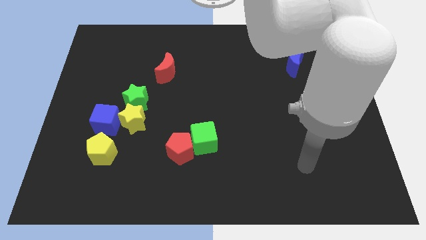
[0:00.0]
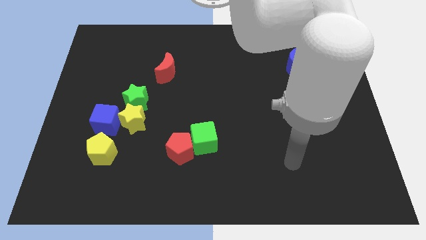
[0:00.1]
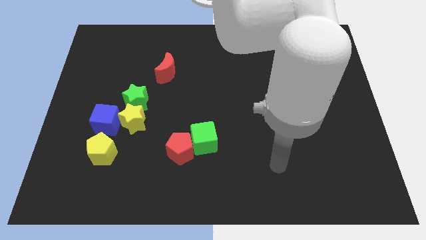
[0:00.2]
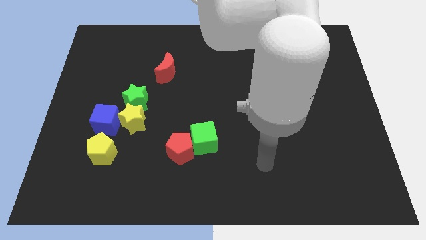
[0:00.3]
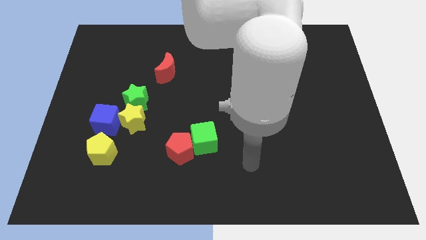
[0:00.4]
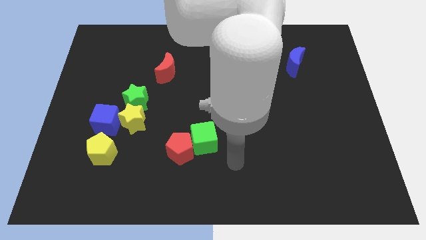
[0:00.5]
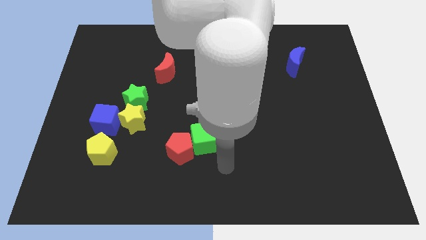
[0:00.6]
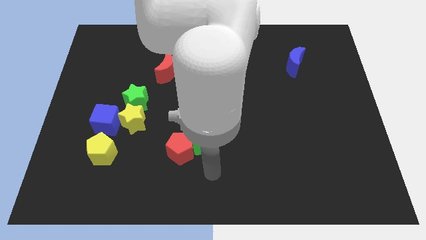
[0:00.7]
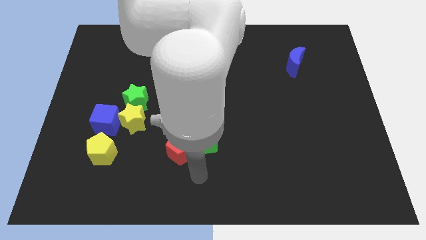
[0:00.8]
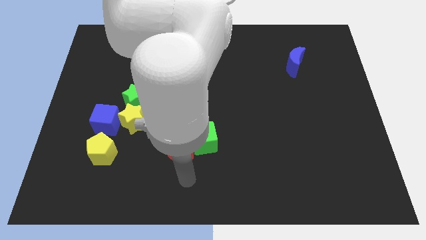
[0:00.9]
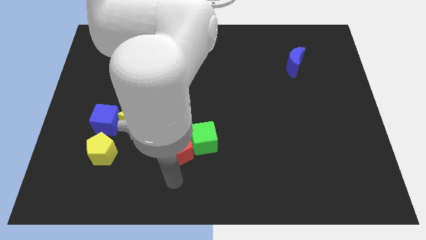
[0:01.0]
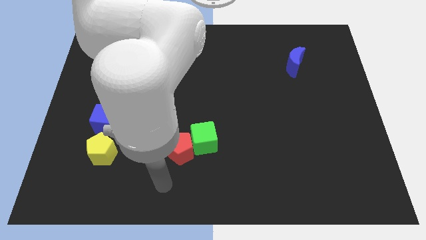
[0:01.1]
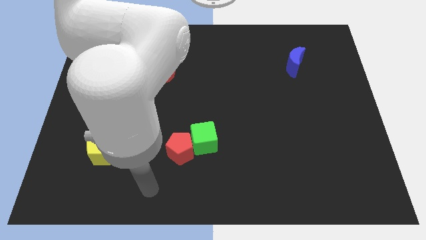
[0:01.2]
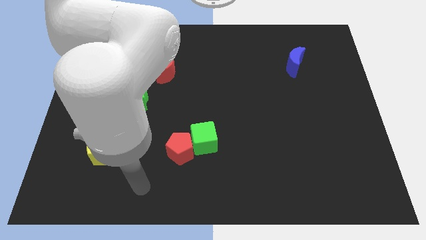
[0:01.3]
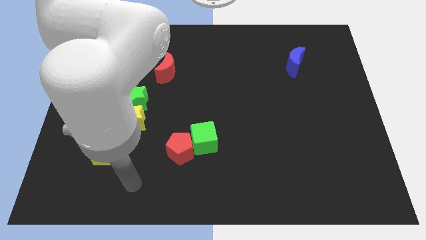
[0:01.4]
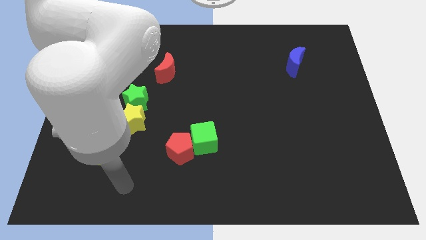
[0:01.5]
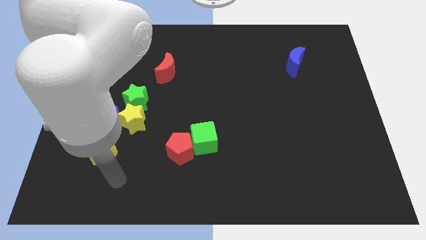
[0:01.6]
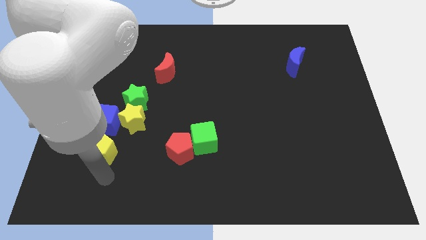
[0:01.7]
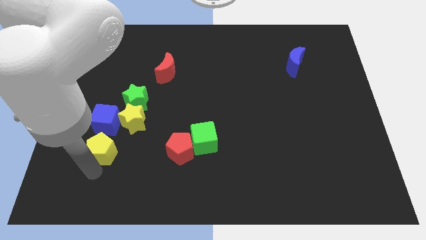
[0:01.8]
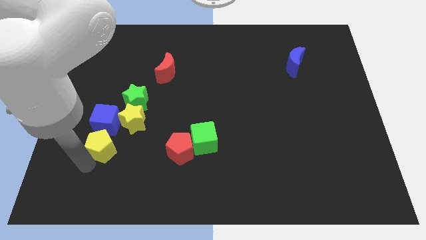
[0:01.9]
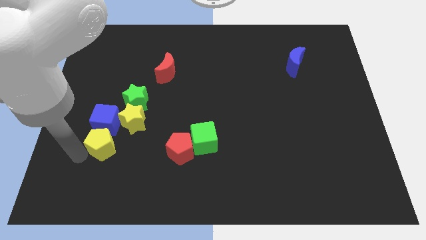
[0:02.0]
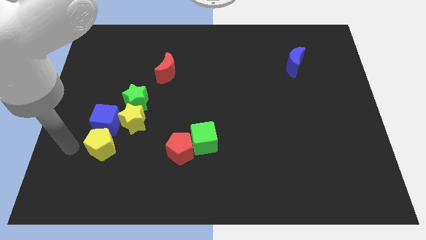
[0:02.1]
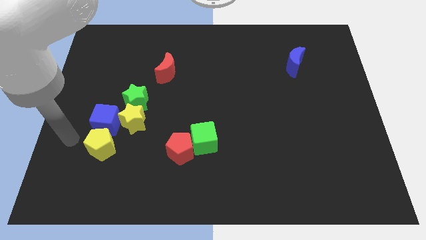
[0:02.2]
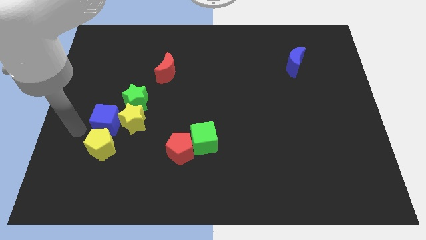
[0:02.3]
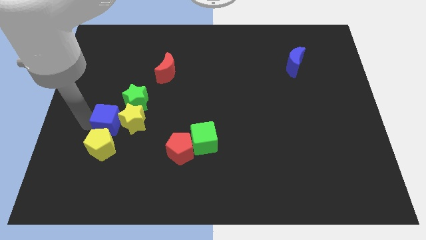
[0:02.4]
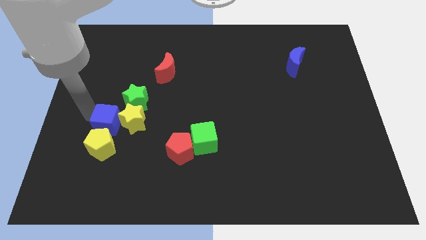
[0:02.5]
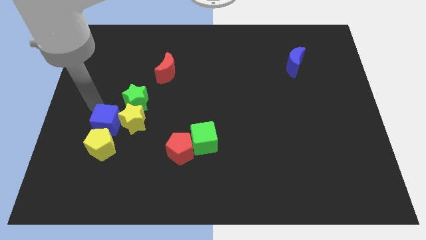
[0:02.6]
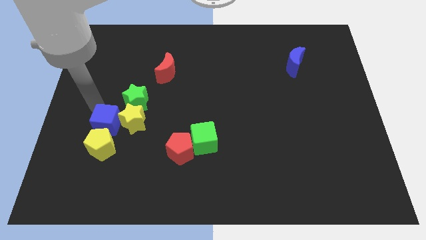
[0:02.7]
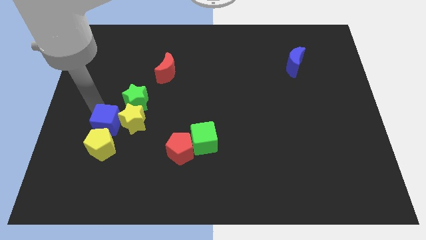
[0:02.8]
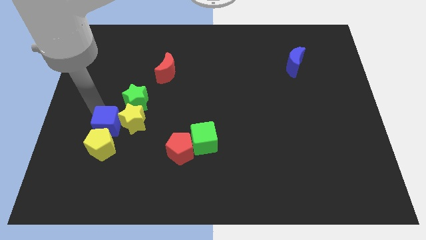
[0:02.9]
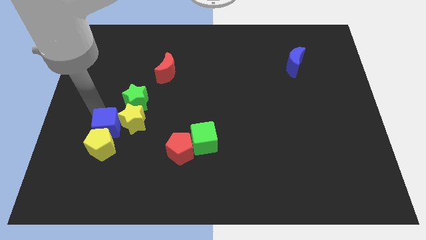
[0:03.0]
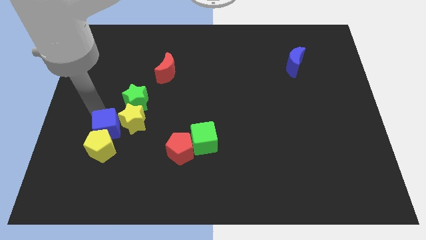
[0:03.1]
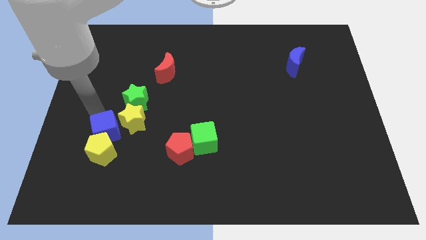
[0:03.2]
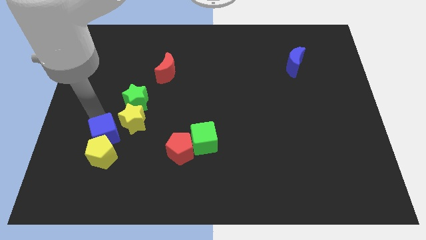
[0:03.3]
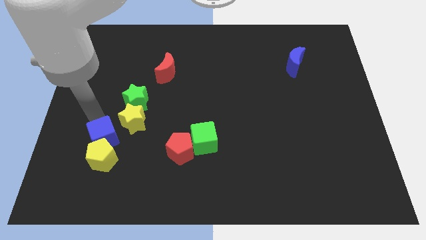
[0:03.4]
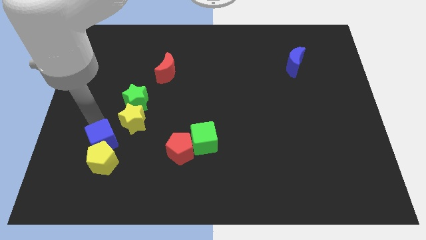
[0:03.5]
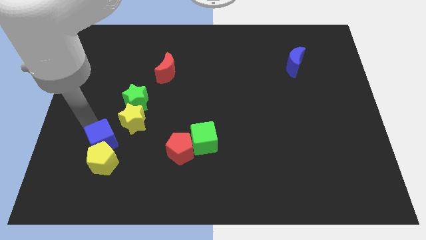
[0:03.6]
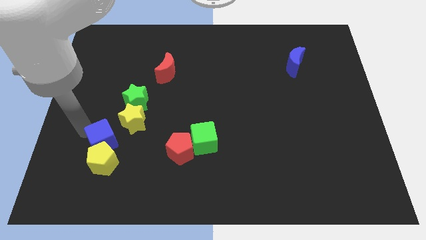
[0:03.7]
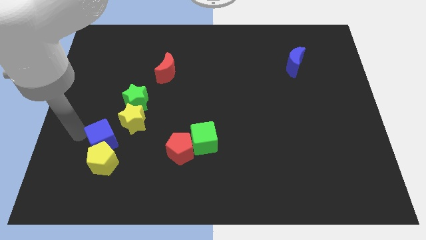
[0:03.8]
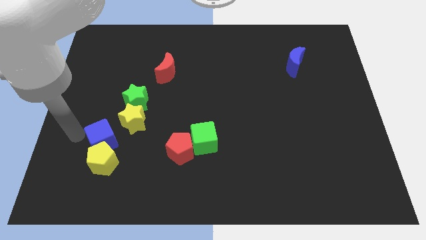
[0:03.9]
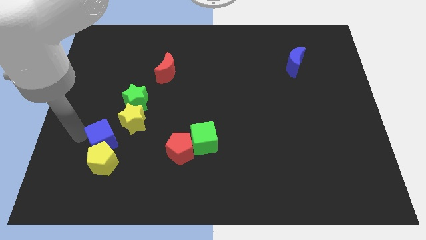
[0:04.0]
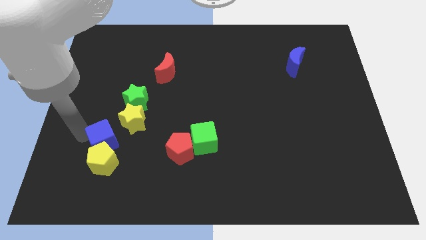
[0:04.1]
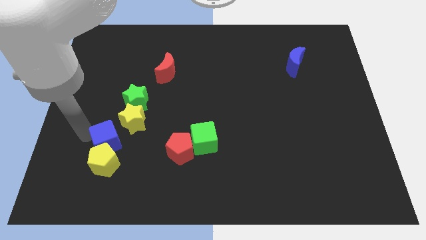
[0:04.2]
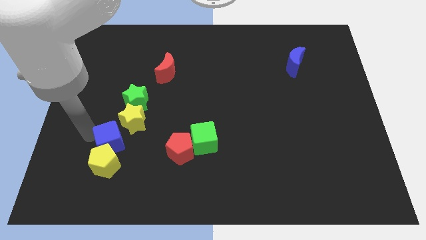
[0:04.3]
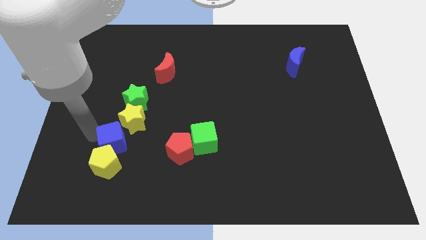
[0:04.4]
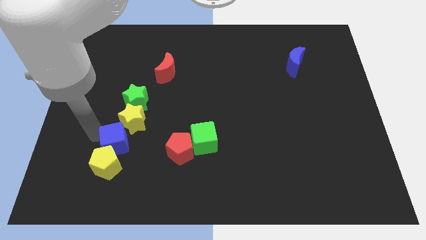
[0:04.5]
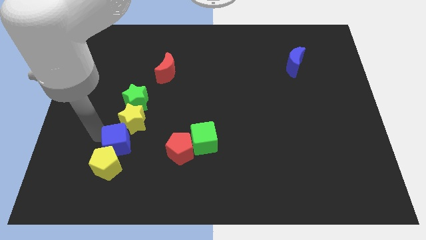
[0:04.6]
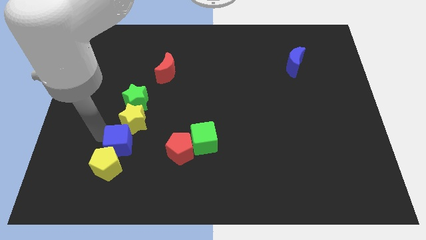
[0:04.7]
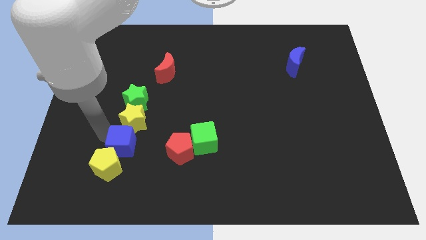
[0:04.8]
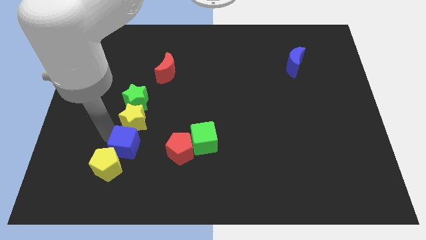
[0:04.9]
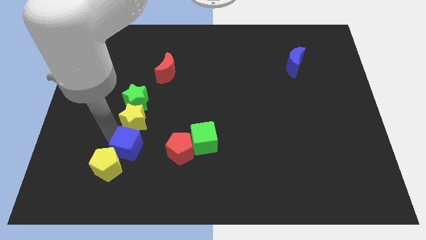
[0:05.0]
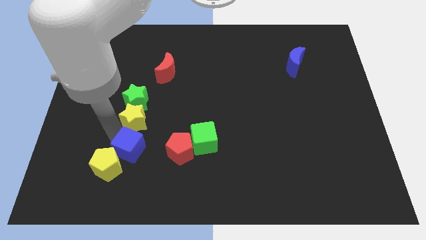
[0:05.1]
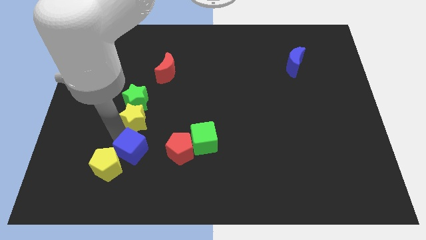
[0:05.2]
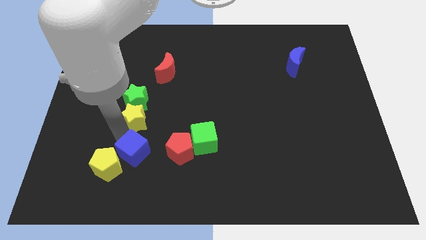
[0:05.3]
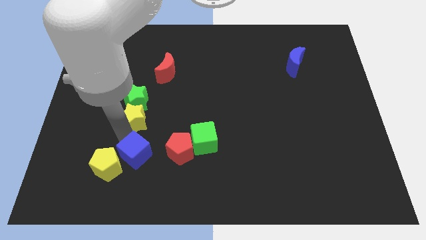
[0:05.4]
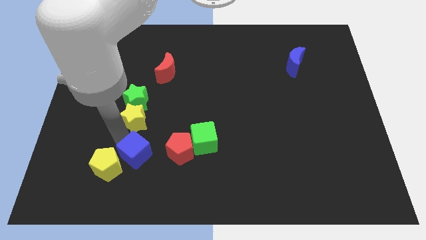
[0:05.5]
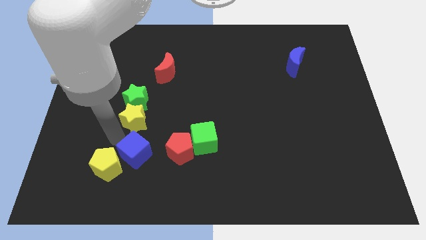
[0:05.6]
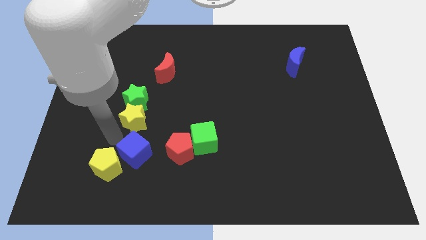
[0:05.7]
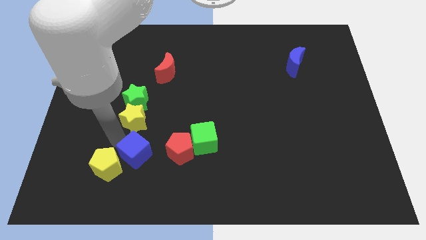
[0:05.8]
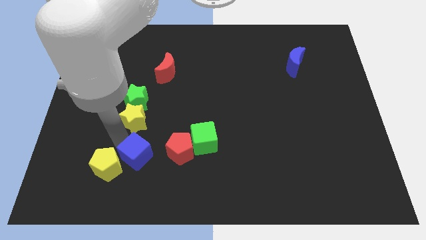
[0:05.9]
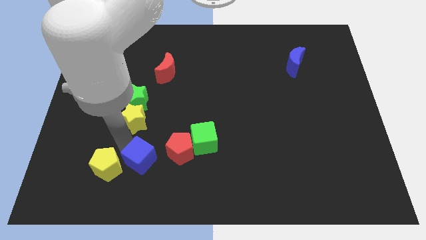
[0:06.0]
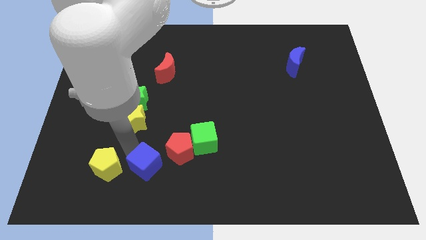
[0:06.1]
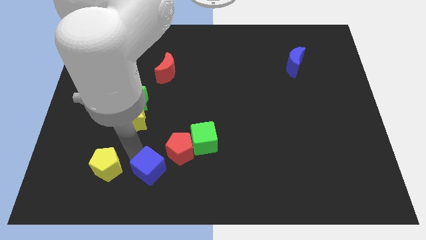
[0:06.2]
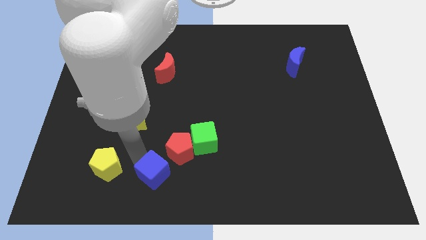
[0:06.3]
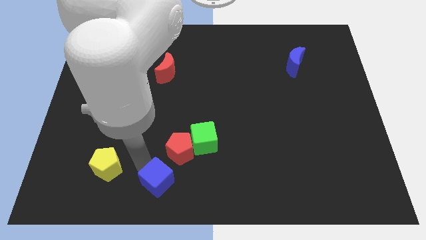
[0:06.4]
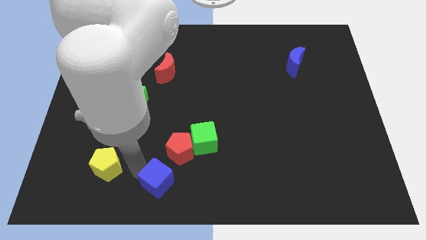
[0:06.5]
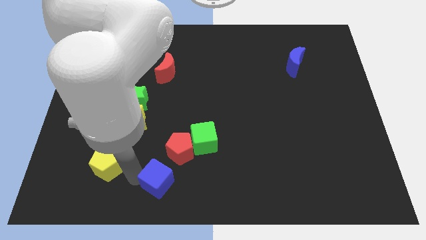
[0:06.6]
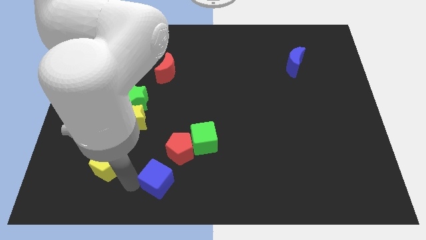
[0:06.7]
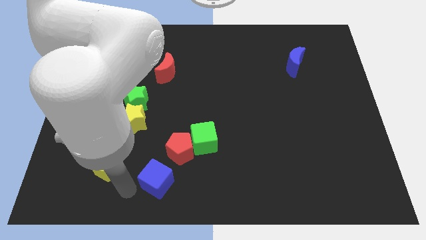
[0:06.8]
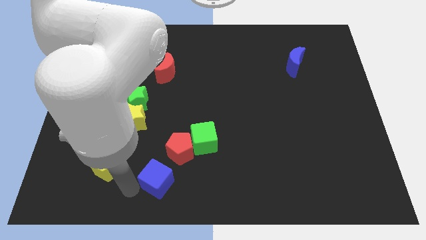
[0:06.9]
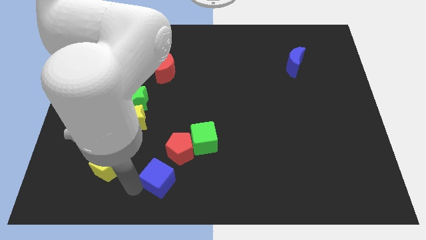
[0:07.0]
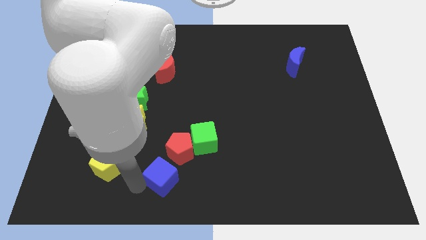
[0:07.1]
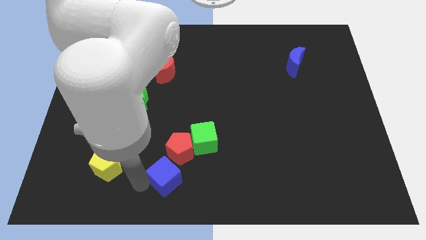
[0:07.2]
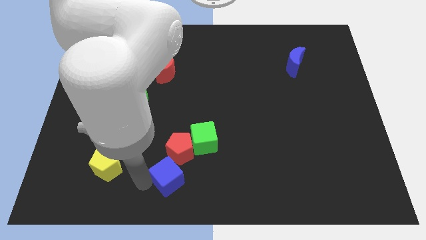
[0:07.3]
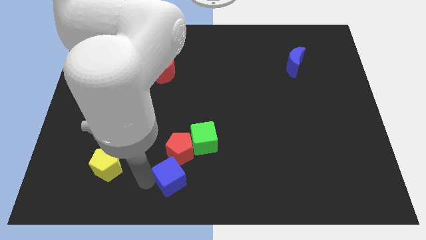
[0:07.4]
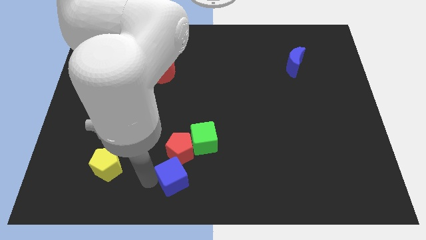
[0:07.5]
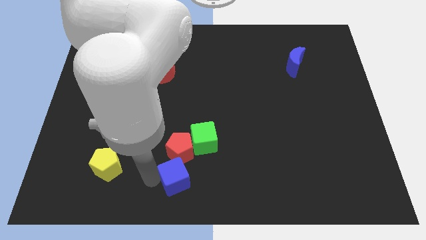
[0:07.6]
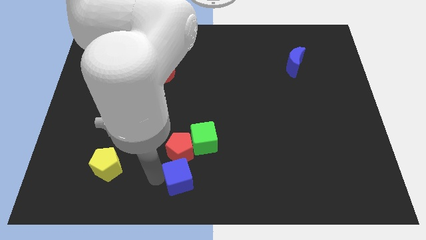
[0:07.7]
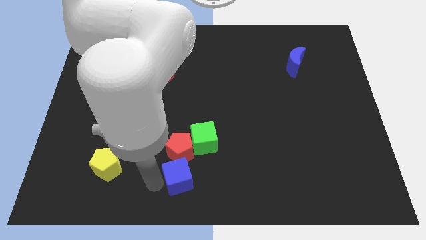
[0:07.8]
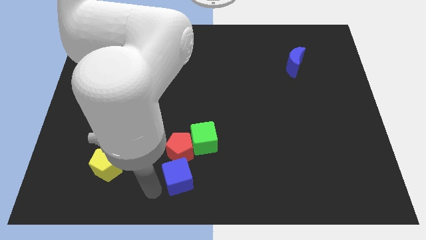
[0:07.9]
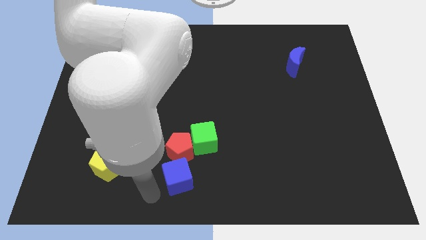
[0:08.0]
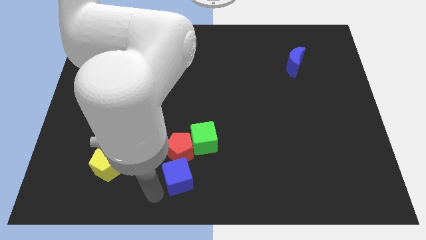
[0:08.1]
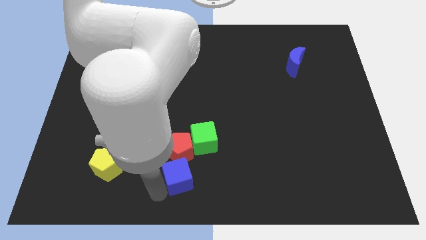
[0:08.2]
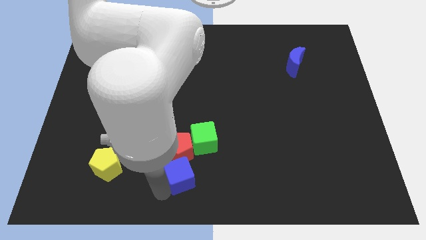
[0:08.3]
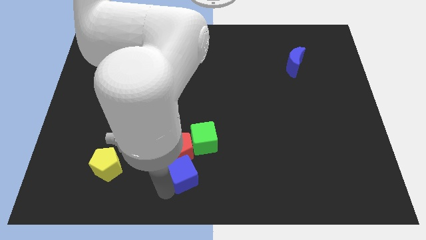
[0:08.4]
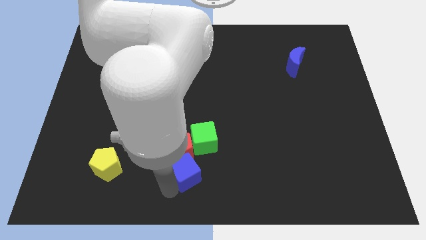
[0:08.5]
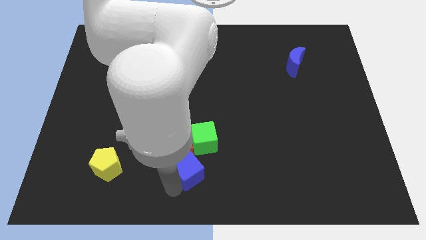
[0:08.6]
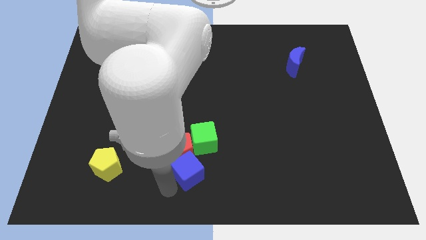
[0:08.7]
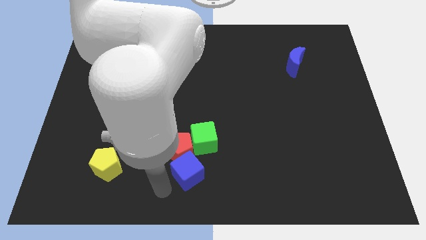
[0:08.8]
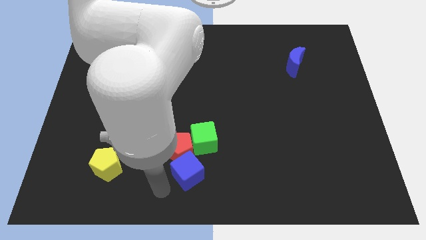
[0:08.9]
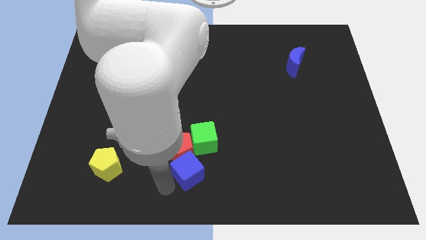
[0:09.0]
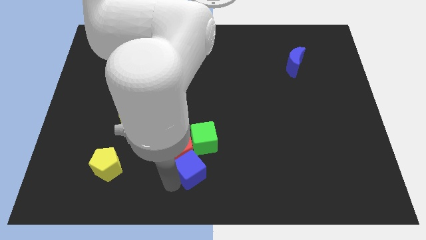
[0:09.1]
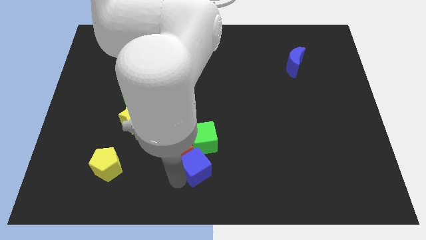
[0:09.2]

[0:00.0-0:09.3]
move the blue cube right of the red pentagon
